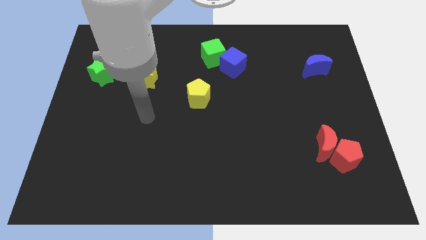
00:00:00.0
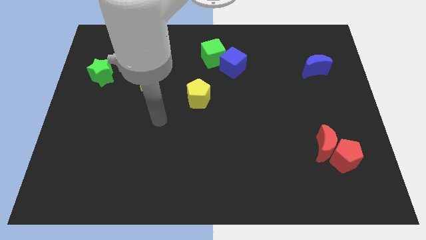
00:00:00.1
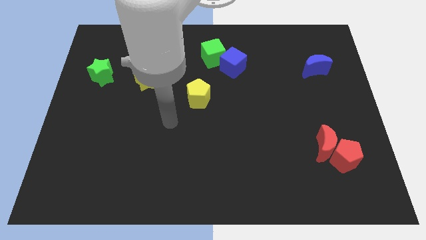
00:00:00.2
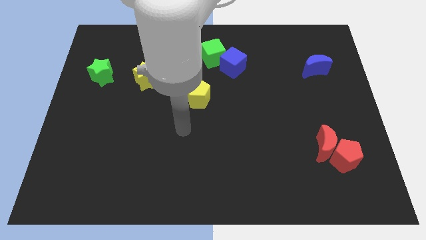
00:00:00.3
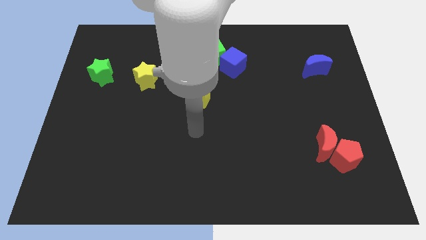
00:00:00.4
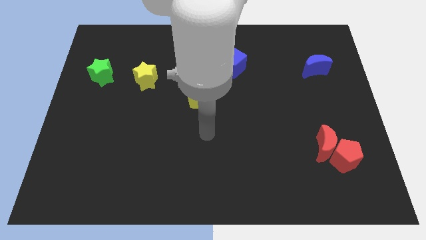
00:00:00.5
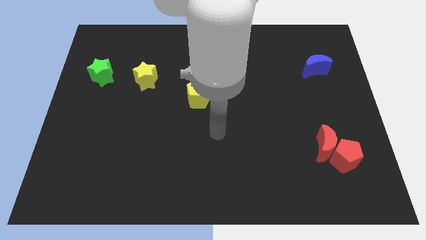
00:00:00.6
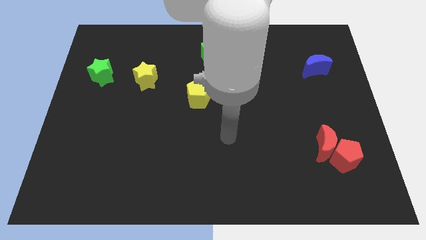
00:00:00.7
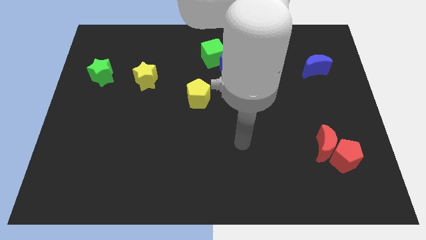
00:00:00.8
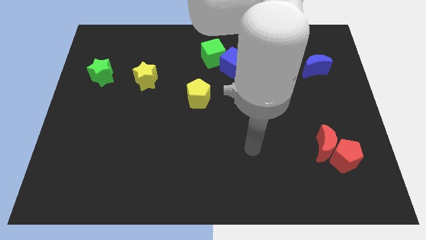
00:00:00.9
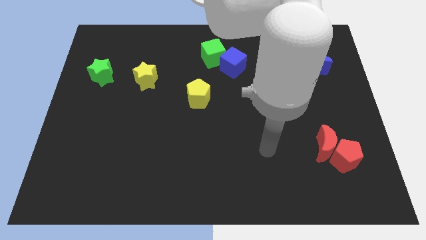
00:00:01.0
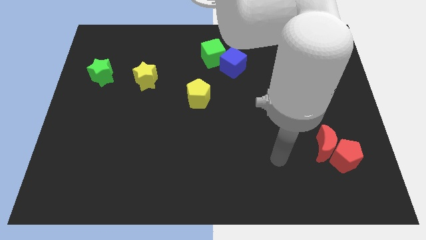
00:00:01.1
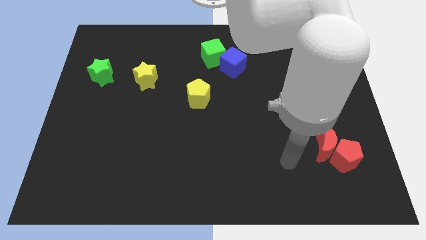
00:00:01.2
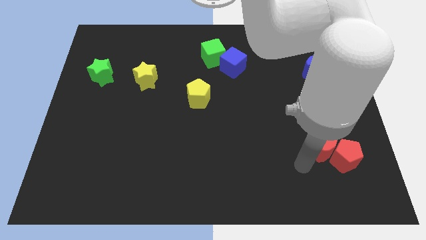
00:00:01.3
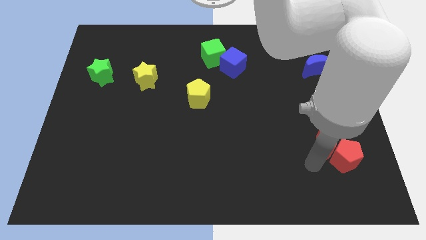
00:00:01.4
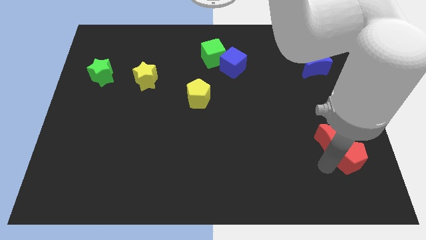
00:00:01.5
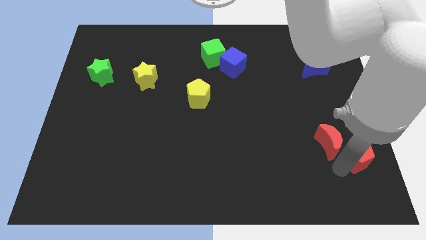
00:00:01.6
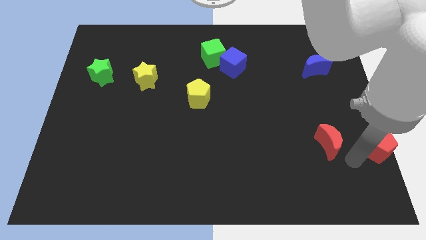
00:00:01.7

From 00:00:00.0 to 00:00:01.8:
move the red moon away from the red pentagon

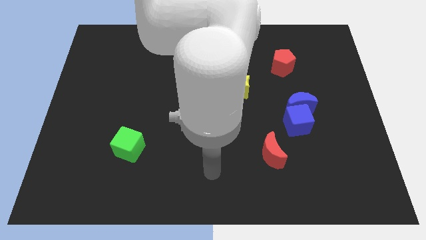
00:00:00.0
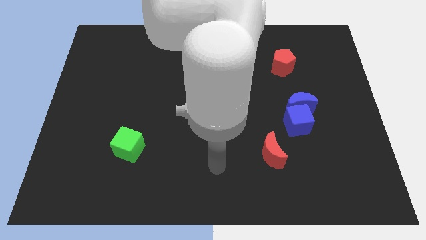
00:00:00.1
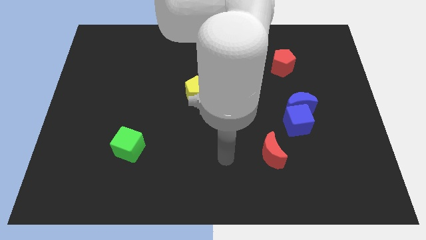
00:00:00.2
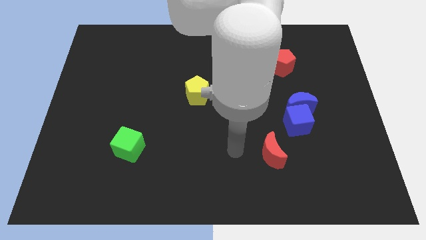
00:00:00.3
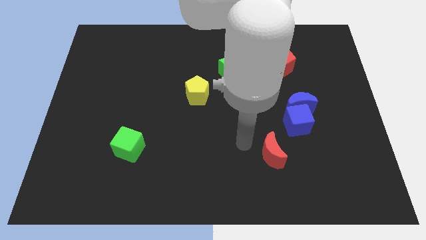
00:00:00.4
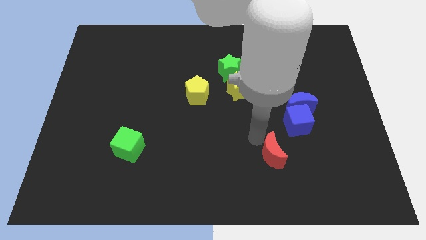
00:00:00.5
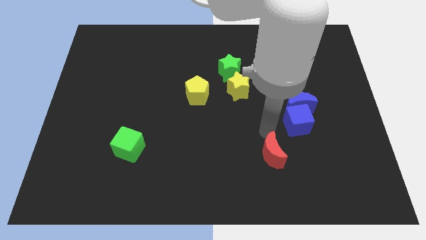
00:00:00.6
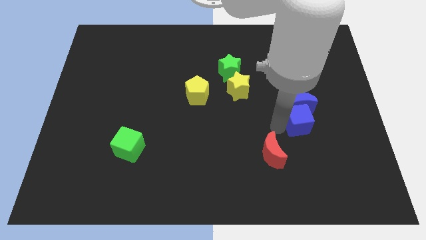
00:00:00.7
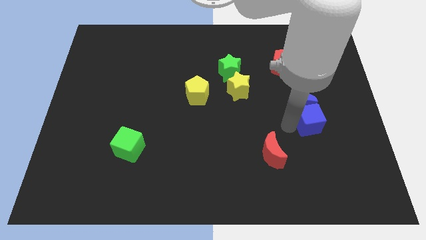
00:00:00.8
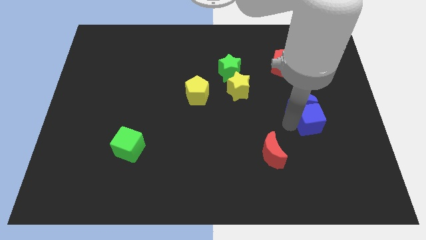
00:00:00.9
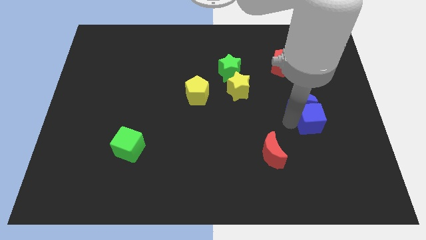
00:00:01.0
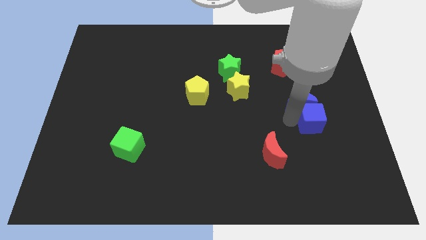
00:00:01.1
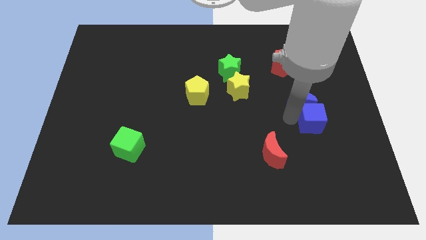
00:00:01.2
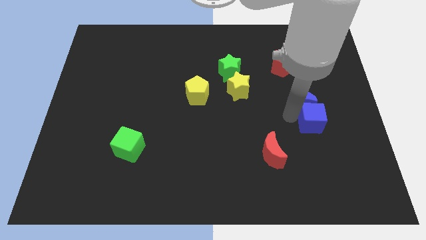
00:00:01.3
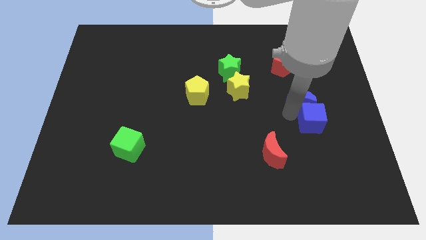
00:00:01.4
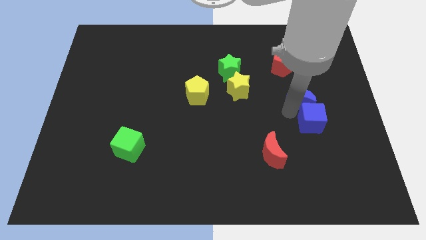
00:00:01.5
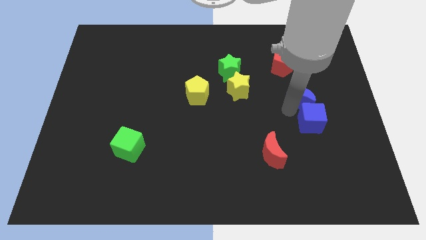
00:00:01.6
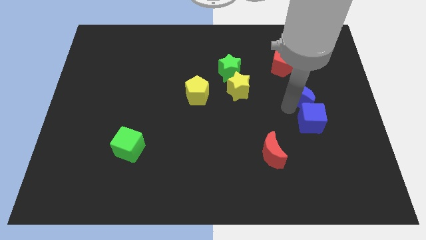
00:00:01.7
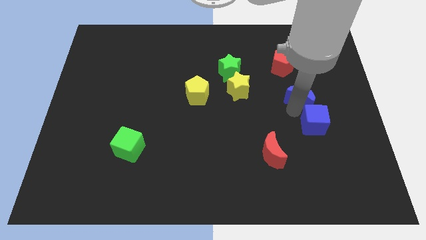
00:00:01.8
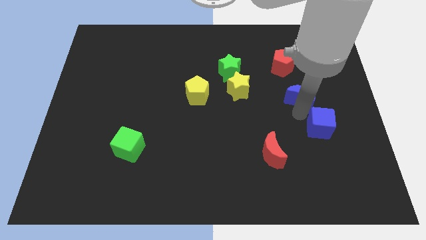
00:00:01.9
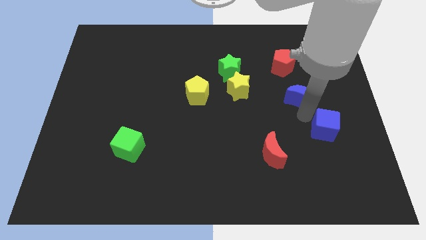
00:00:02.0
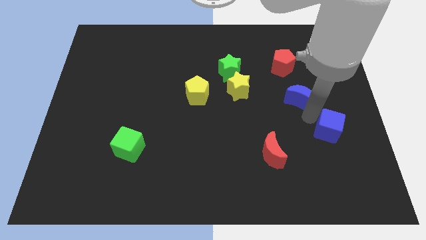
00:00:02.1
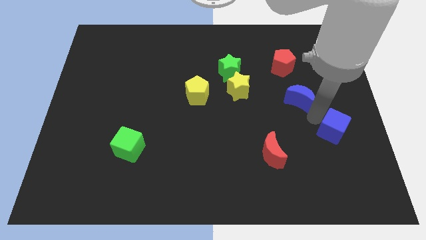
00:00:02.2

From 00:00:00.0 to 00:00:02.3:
separate the blue moon from the blue cube

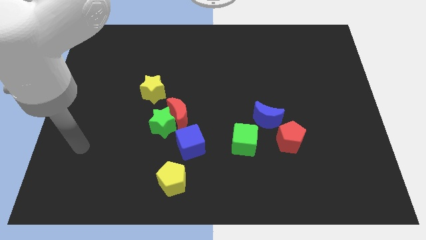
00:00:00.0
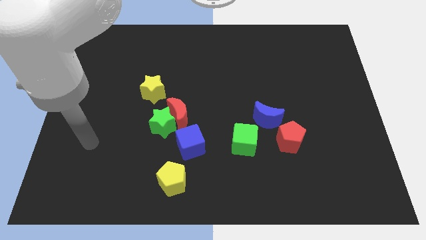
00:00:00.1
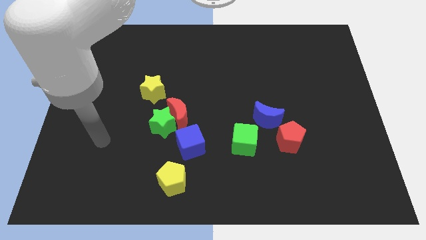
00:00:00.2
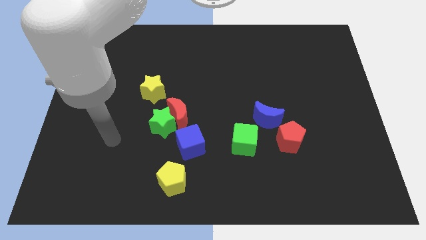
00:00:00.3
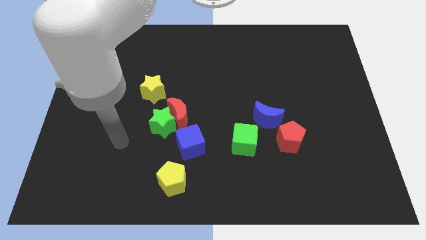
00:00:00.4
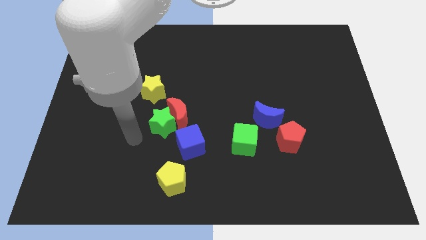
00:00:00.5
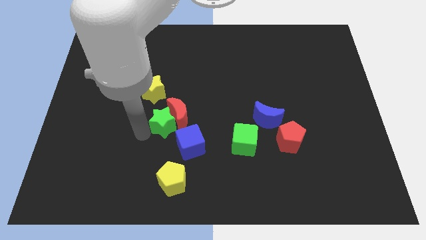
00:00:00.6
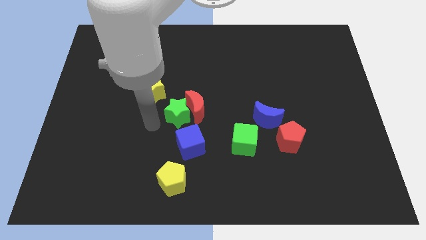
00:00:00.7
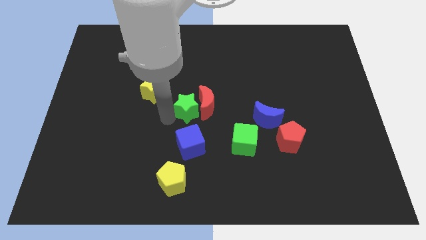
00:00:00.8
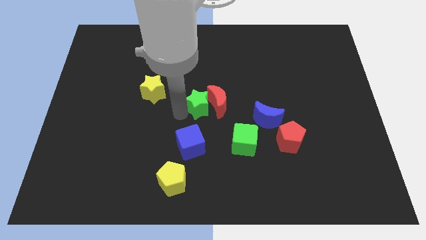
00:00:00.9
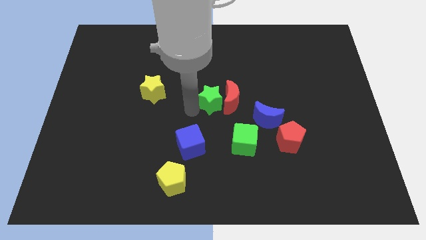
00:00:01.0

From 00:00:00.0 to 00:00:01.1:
move the red moon away from the group

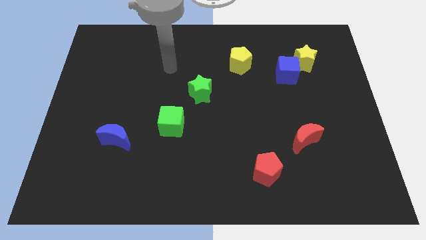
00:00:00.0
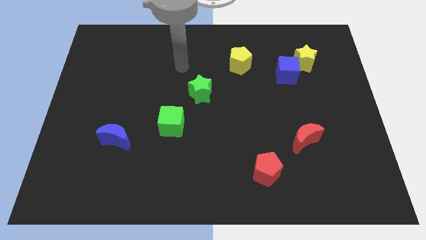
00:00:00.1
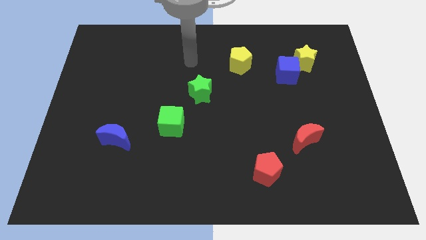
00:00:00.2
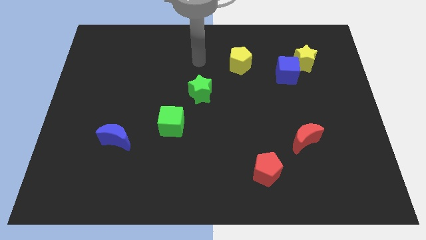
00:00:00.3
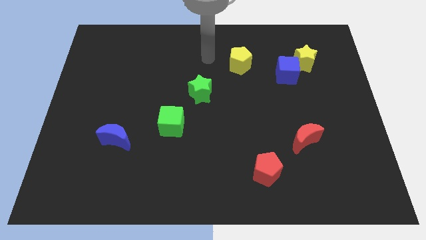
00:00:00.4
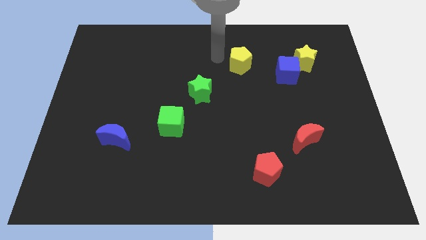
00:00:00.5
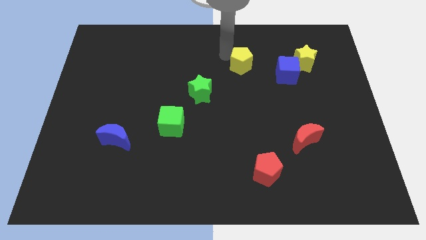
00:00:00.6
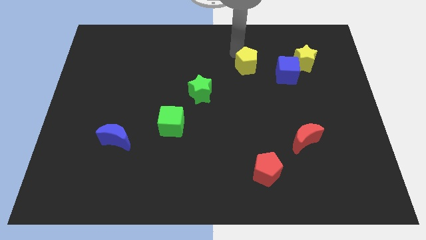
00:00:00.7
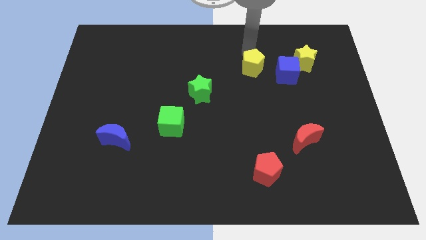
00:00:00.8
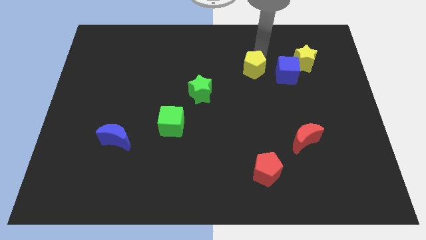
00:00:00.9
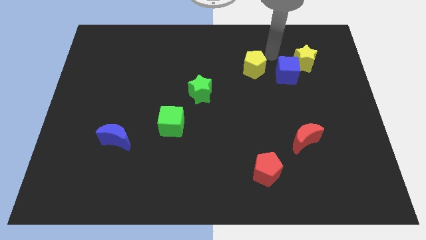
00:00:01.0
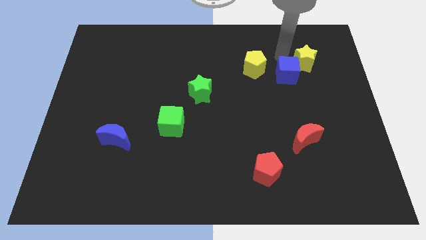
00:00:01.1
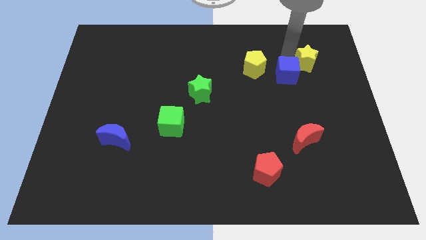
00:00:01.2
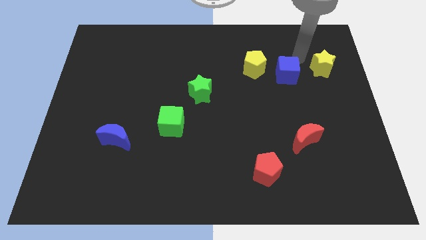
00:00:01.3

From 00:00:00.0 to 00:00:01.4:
move the blue cube away from the yellow star

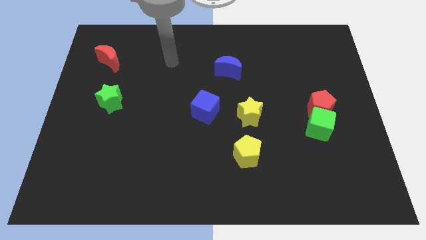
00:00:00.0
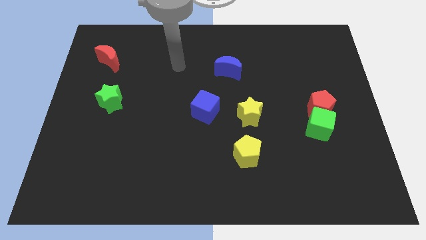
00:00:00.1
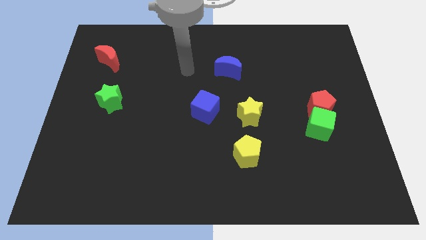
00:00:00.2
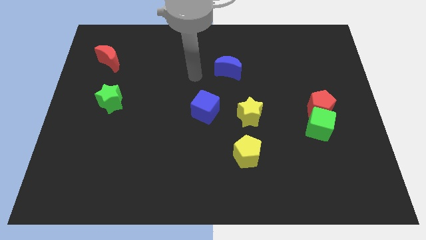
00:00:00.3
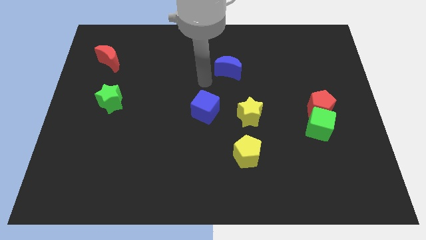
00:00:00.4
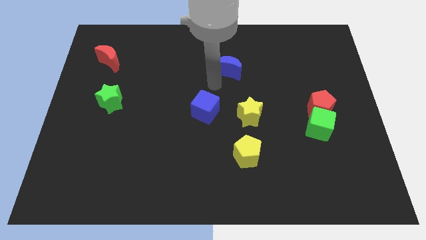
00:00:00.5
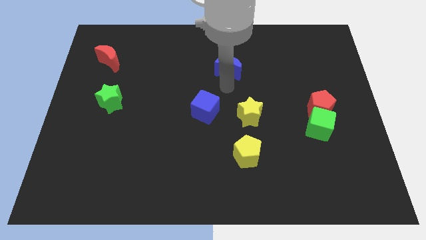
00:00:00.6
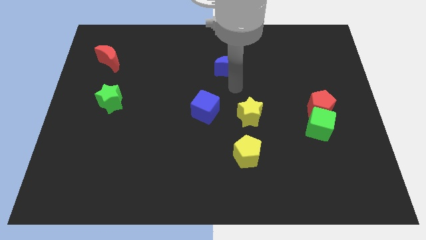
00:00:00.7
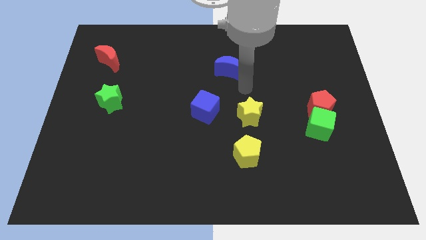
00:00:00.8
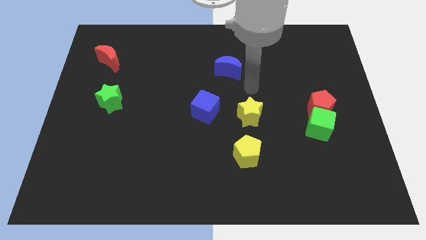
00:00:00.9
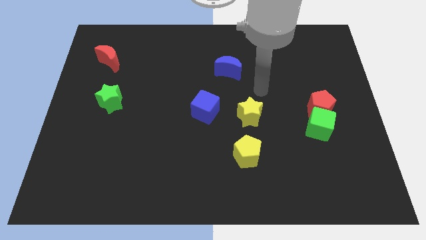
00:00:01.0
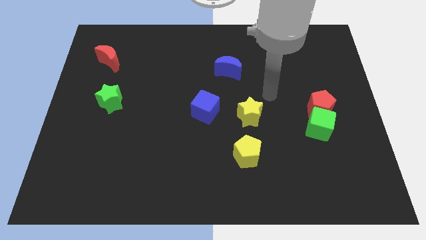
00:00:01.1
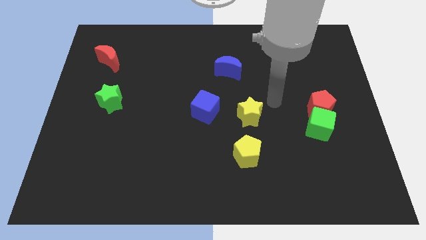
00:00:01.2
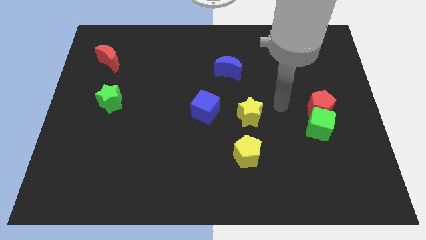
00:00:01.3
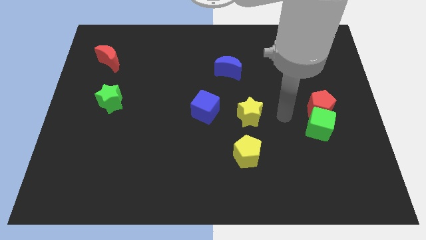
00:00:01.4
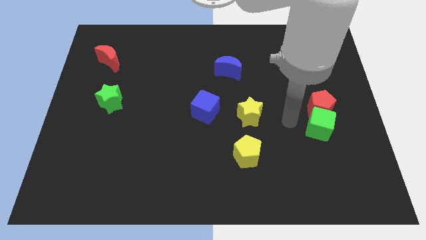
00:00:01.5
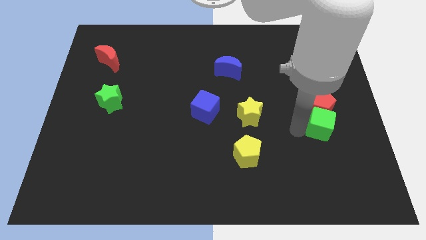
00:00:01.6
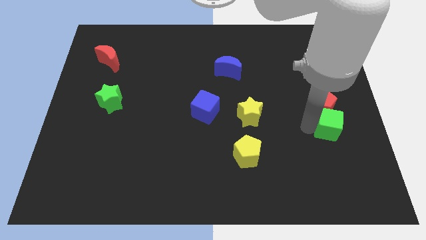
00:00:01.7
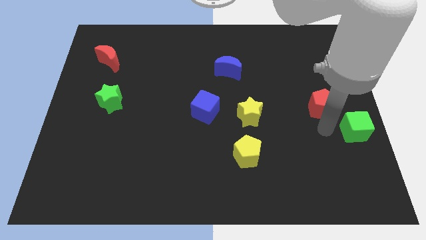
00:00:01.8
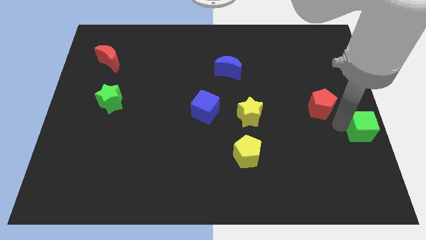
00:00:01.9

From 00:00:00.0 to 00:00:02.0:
pull the red pentagon apart from the green cube

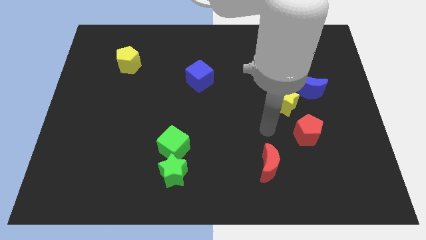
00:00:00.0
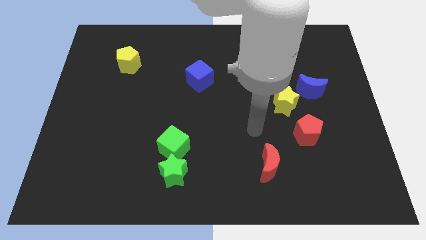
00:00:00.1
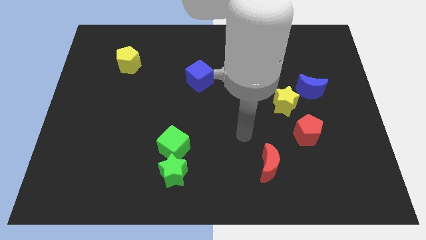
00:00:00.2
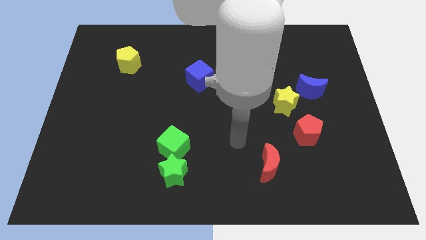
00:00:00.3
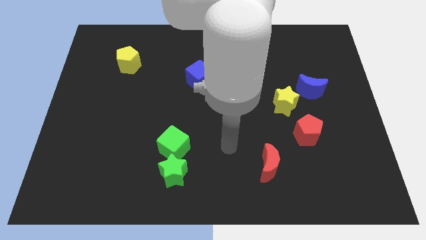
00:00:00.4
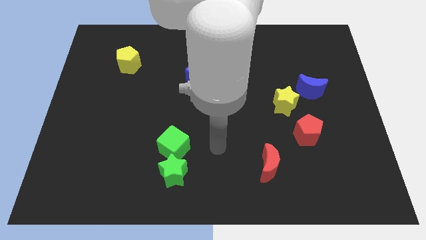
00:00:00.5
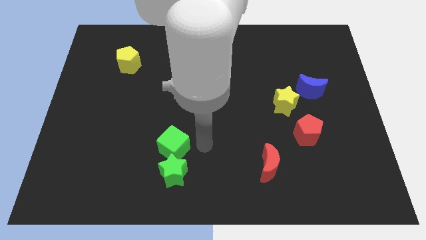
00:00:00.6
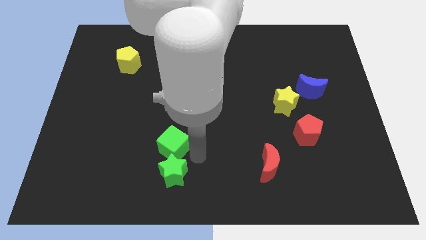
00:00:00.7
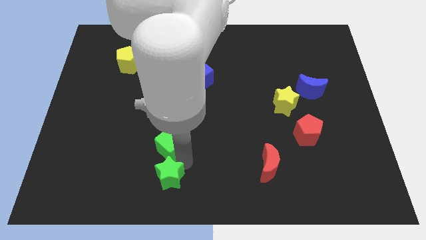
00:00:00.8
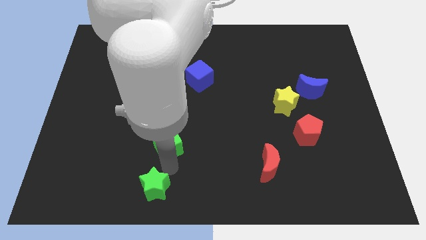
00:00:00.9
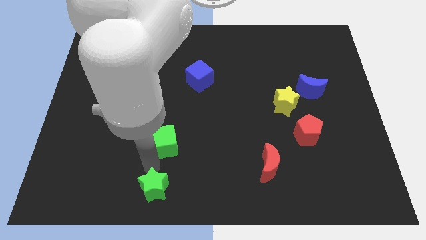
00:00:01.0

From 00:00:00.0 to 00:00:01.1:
pull the green cube apart from the green star
